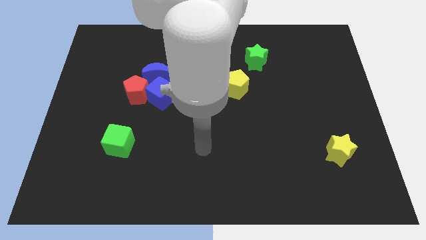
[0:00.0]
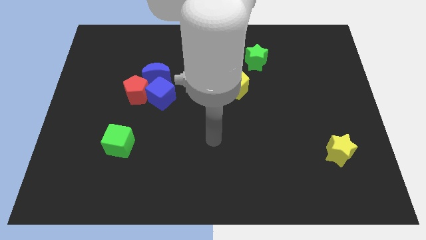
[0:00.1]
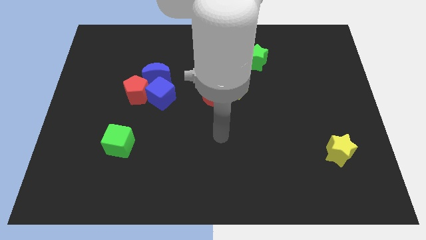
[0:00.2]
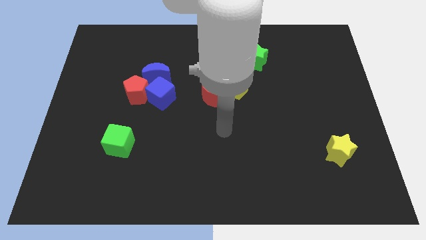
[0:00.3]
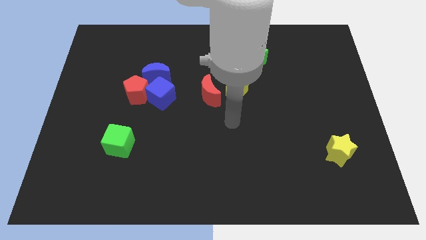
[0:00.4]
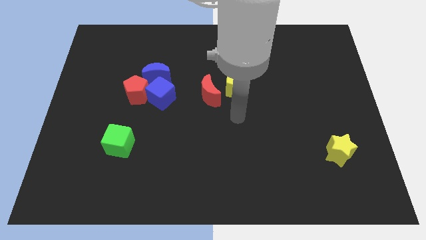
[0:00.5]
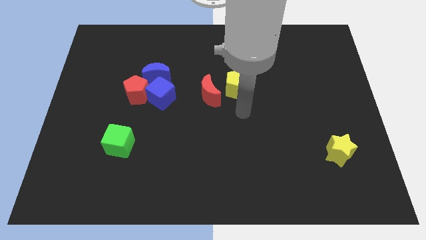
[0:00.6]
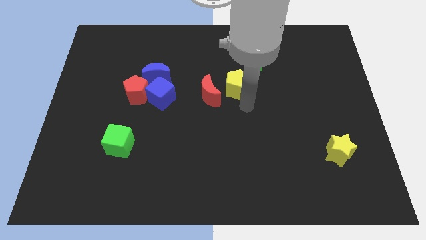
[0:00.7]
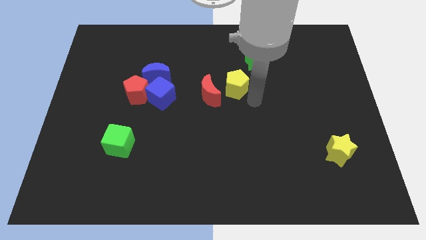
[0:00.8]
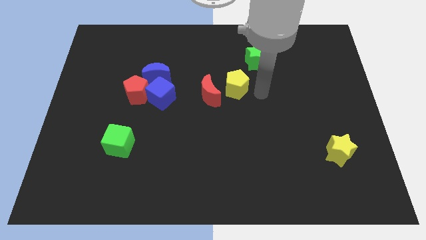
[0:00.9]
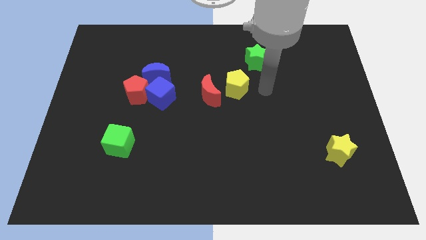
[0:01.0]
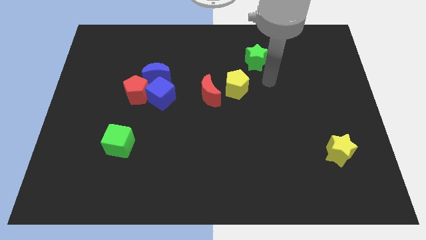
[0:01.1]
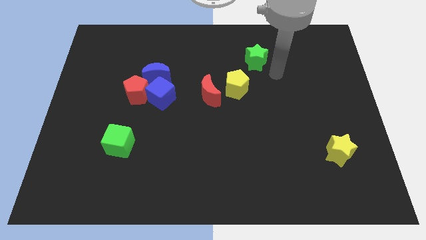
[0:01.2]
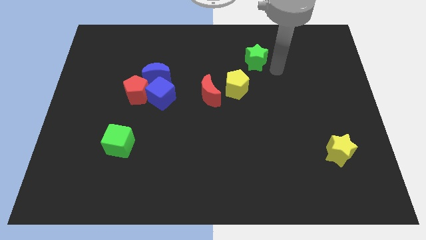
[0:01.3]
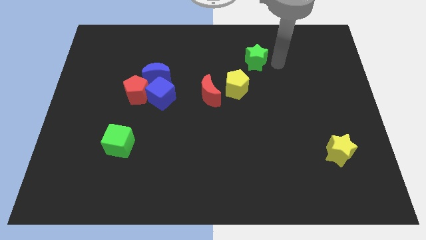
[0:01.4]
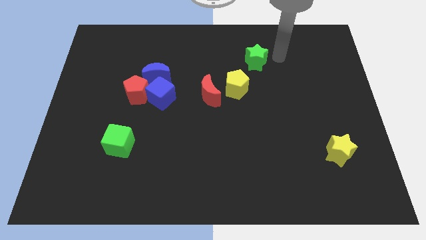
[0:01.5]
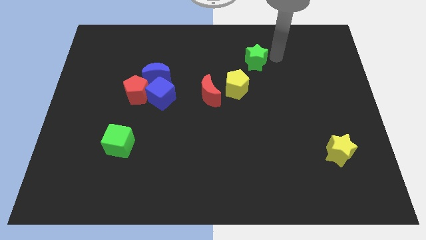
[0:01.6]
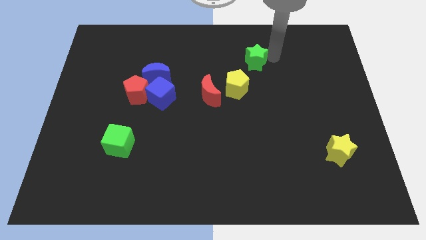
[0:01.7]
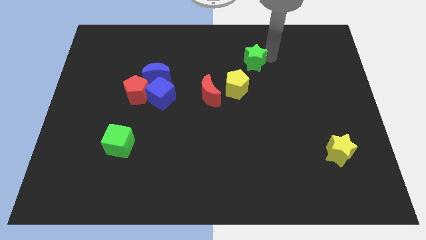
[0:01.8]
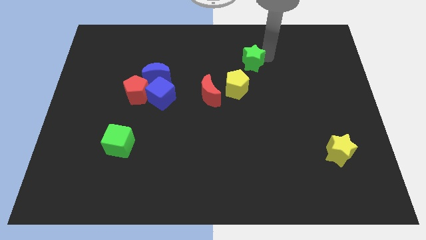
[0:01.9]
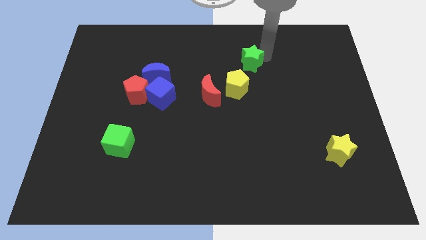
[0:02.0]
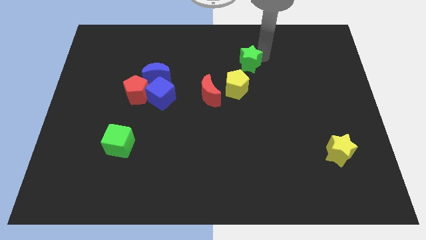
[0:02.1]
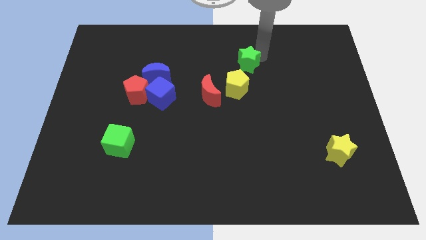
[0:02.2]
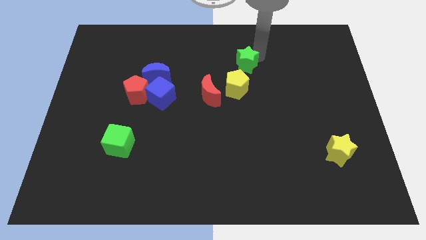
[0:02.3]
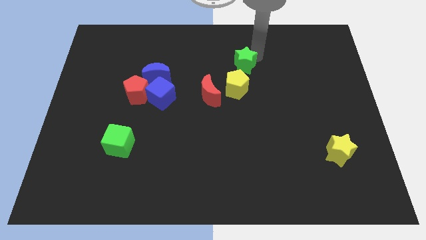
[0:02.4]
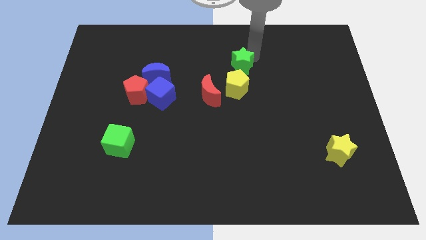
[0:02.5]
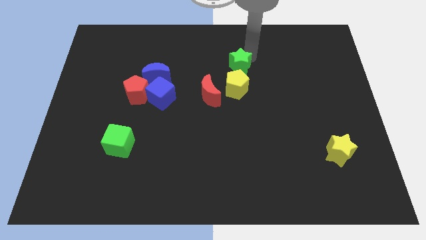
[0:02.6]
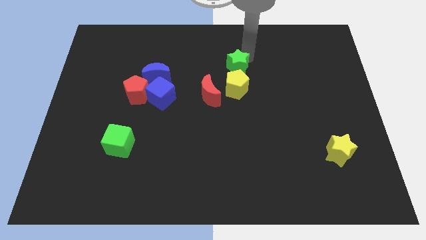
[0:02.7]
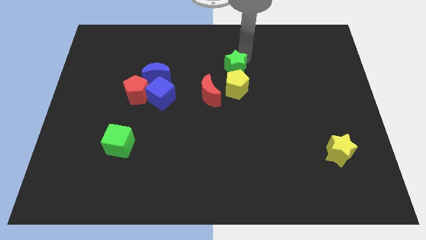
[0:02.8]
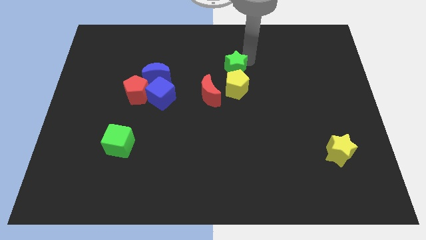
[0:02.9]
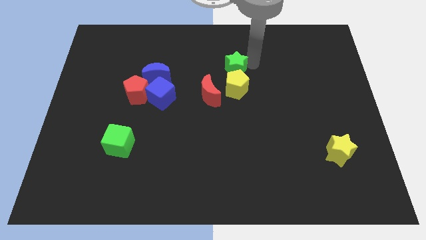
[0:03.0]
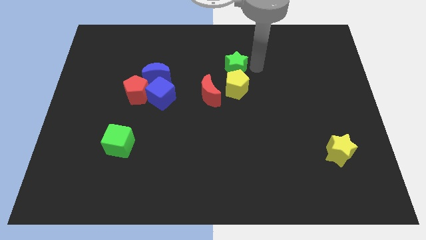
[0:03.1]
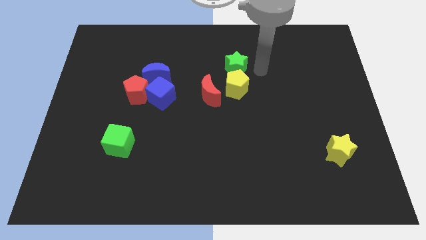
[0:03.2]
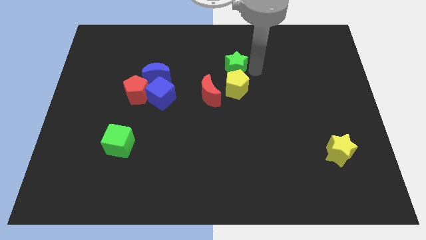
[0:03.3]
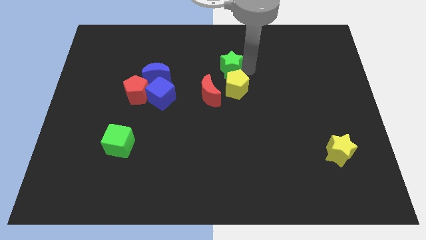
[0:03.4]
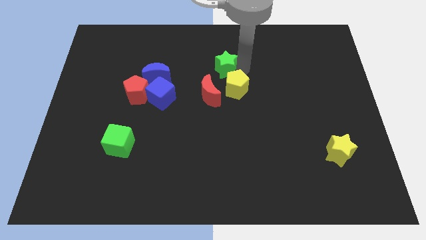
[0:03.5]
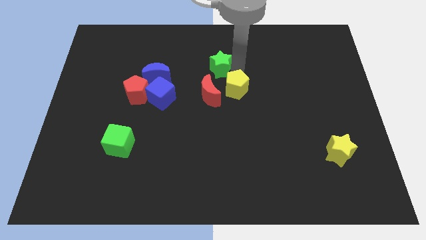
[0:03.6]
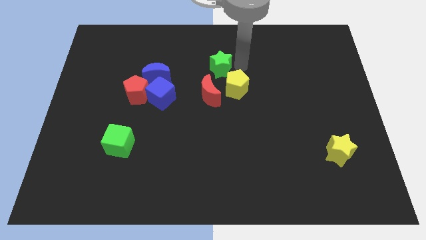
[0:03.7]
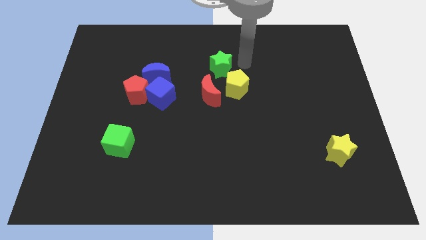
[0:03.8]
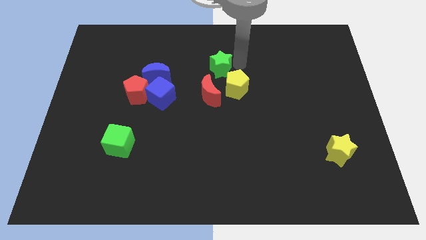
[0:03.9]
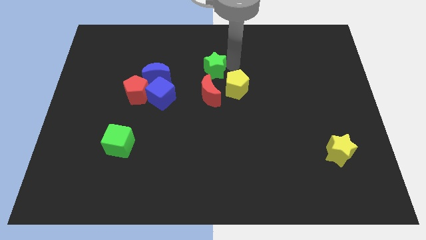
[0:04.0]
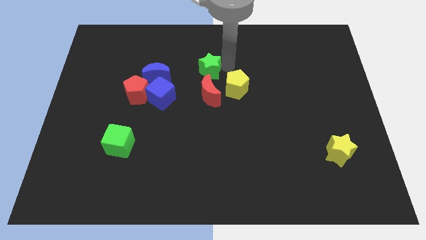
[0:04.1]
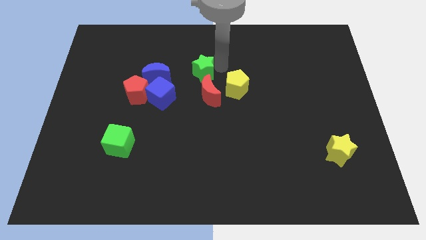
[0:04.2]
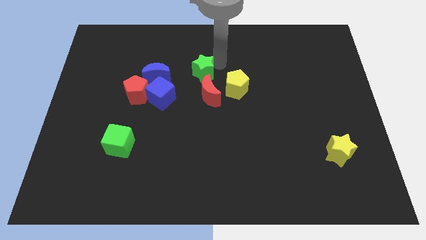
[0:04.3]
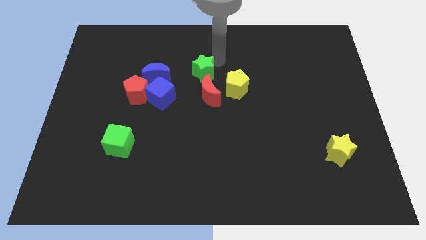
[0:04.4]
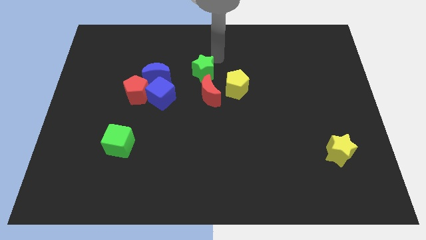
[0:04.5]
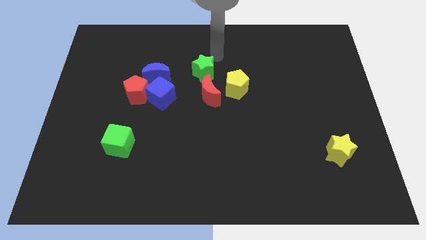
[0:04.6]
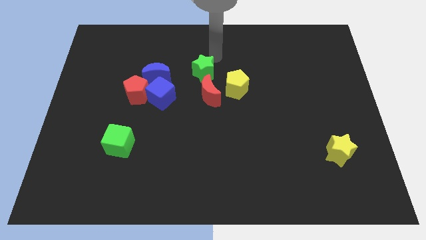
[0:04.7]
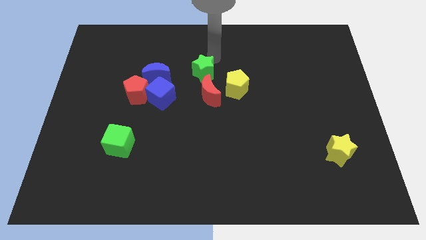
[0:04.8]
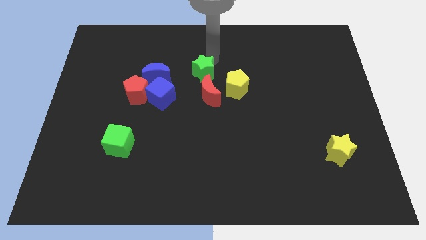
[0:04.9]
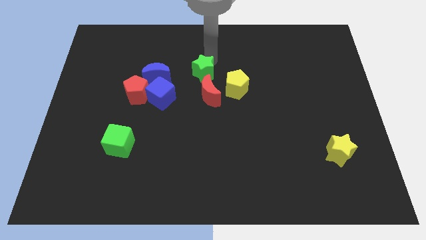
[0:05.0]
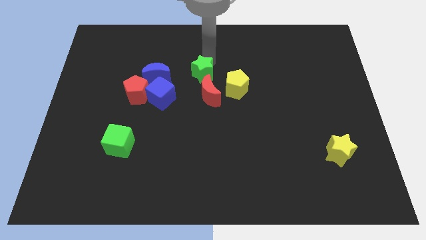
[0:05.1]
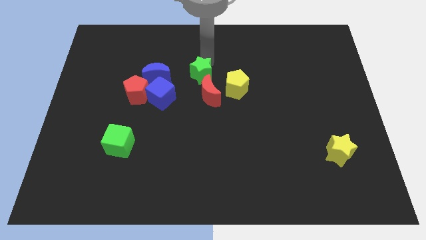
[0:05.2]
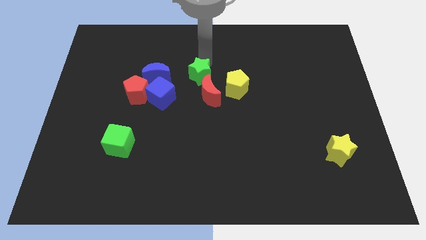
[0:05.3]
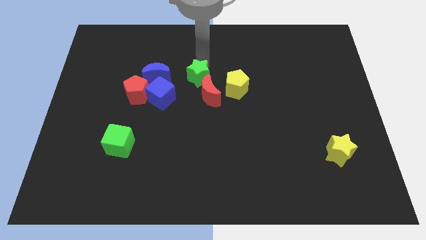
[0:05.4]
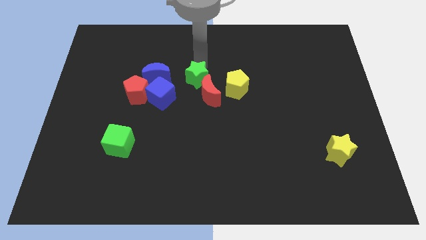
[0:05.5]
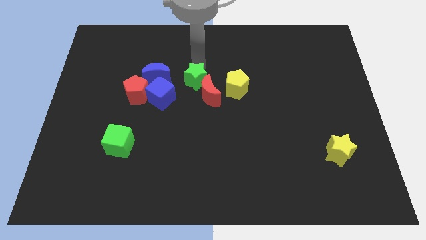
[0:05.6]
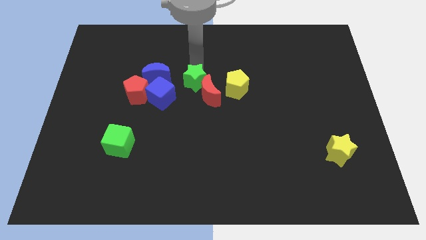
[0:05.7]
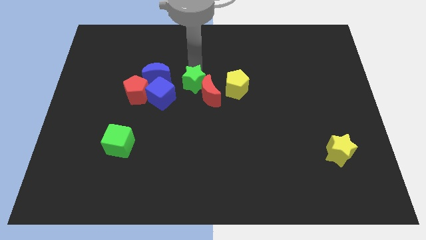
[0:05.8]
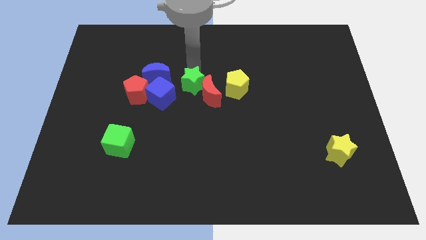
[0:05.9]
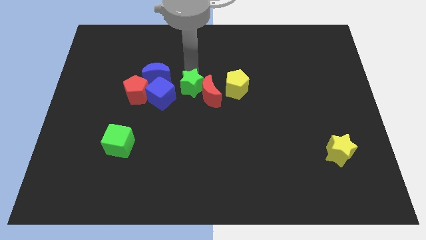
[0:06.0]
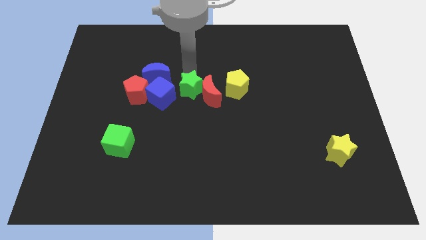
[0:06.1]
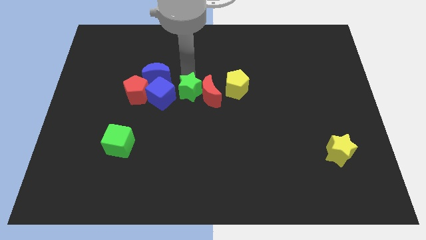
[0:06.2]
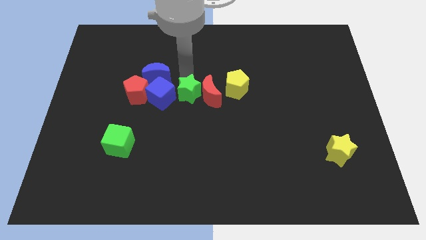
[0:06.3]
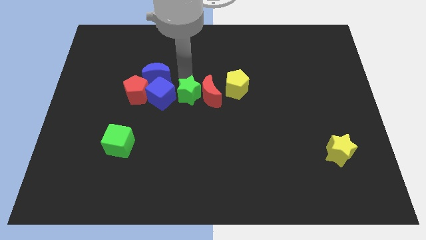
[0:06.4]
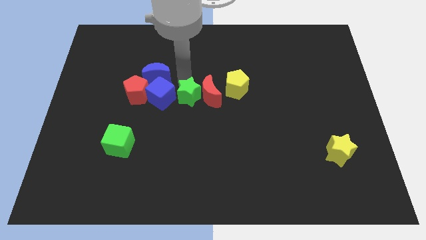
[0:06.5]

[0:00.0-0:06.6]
move the green star downwards and to the left

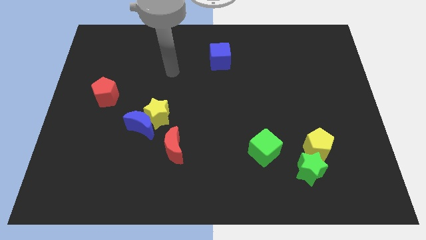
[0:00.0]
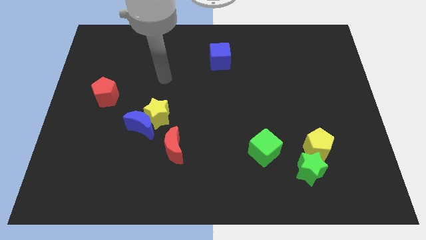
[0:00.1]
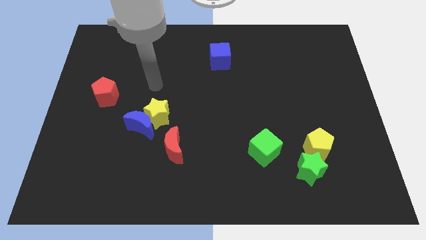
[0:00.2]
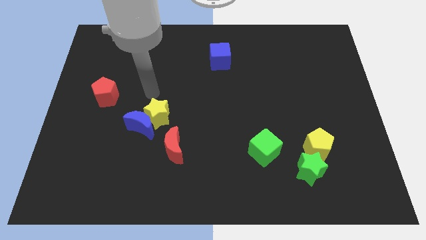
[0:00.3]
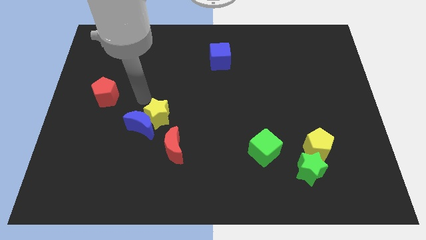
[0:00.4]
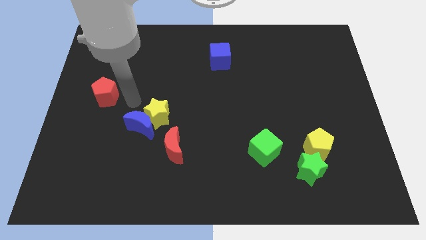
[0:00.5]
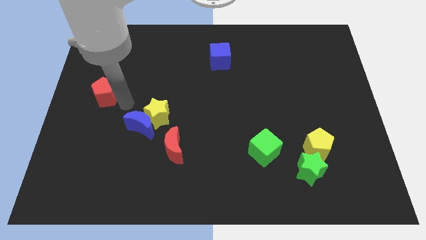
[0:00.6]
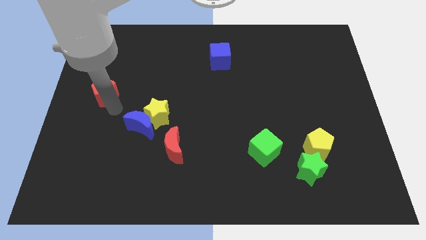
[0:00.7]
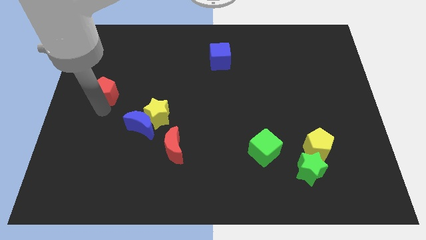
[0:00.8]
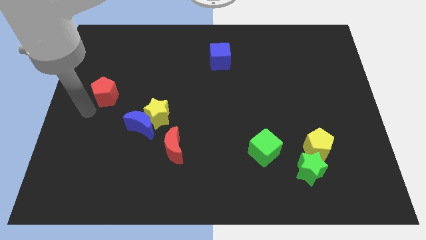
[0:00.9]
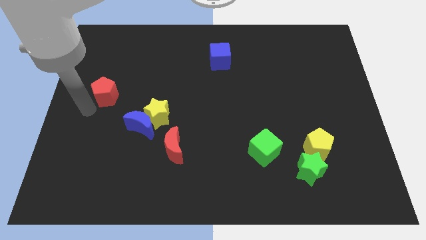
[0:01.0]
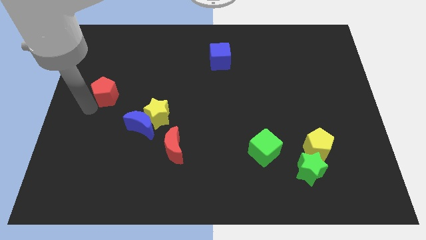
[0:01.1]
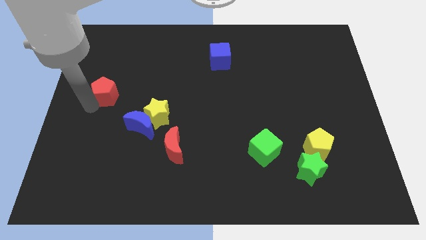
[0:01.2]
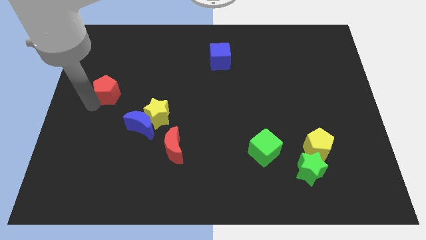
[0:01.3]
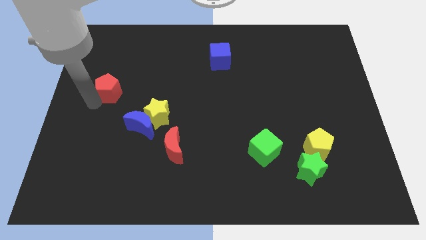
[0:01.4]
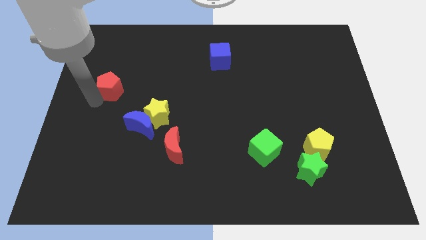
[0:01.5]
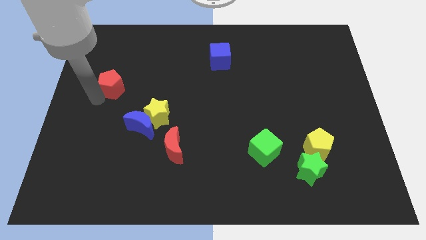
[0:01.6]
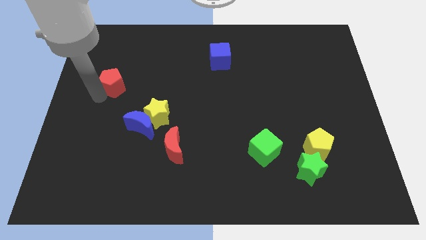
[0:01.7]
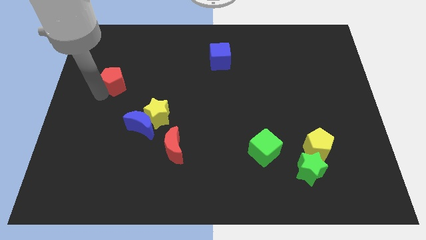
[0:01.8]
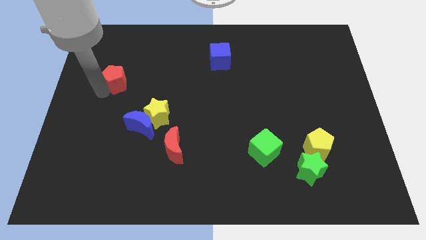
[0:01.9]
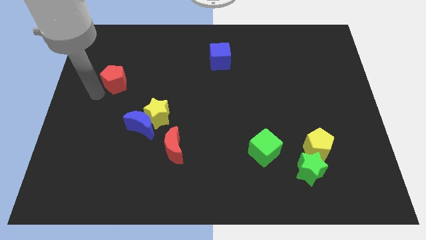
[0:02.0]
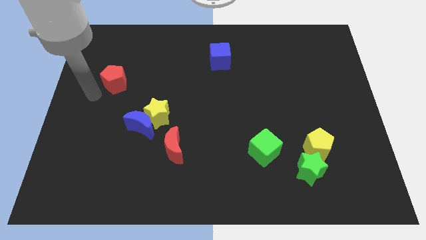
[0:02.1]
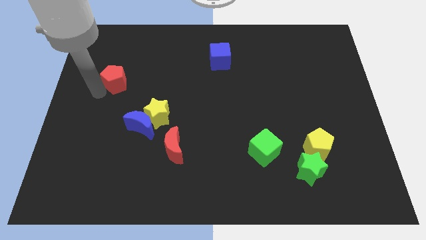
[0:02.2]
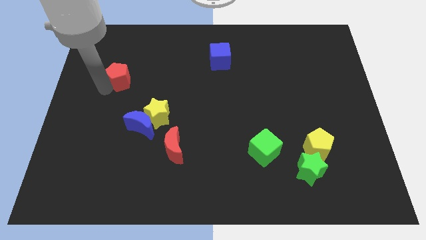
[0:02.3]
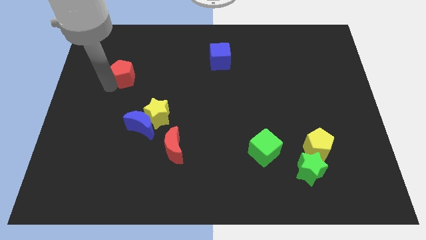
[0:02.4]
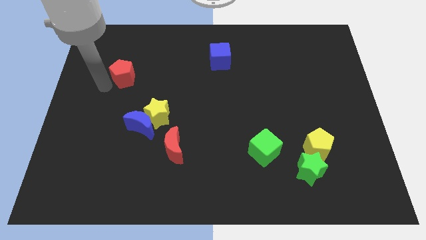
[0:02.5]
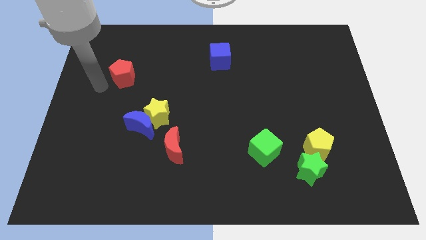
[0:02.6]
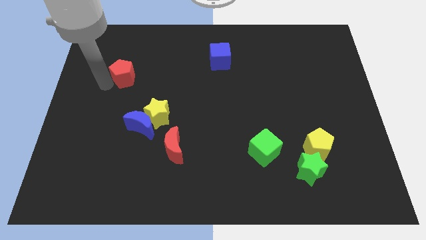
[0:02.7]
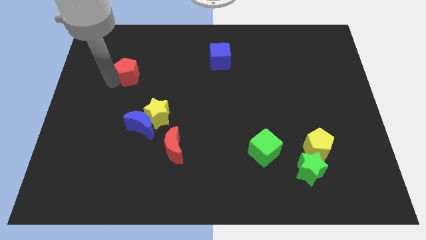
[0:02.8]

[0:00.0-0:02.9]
push the red pentagon a little bit up and then right
